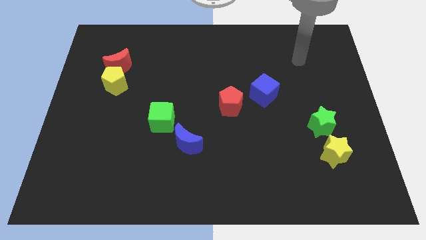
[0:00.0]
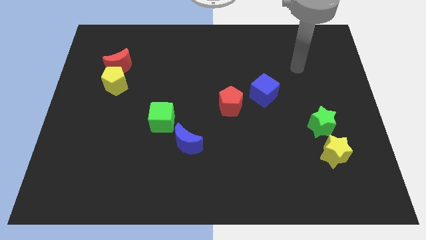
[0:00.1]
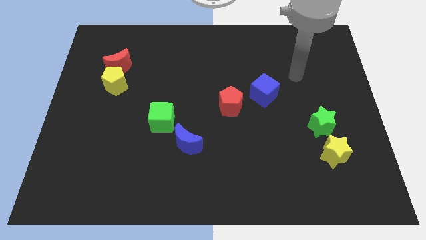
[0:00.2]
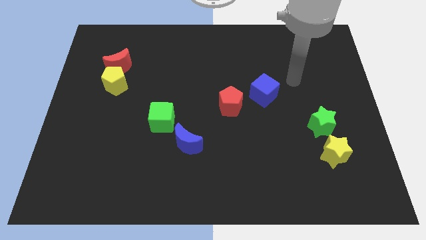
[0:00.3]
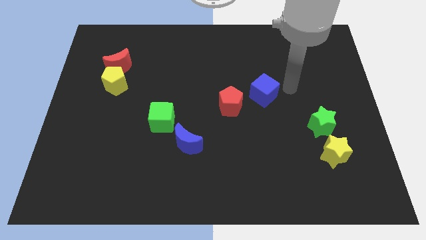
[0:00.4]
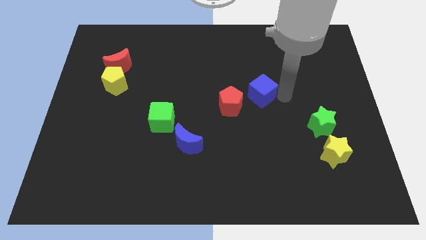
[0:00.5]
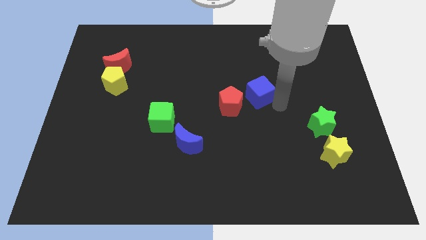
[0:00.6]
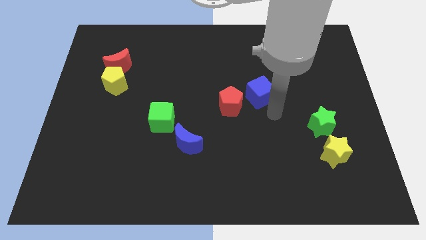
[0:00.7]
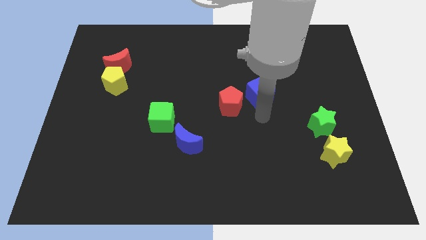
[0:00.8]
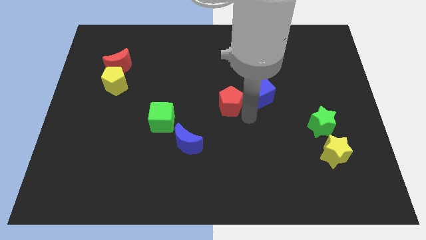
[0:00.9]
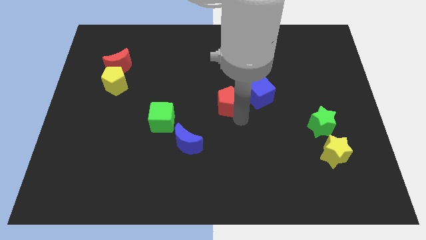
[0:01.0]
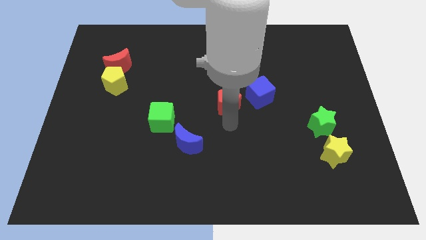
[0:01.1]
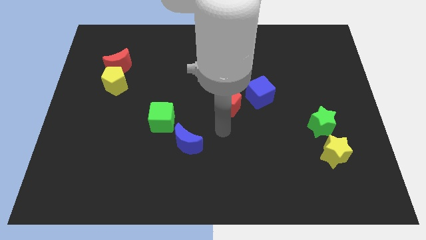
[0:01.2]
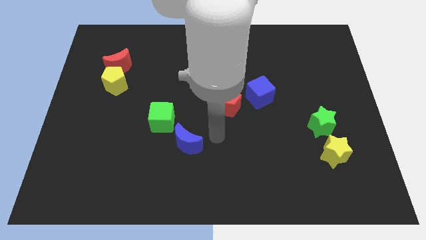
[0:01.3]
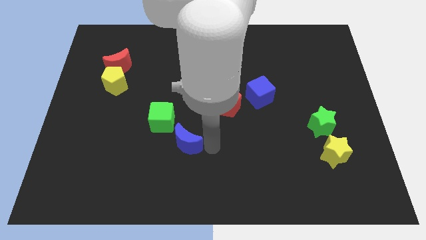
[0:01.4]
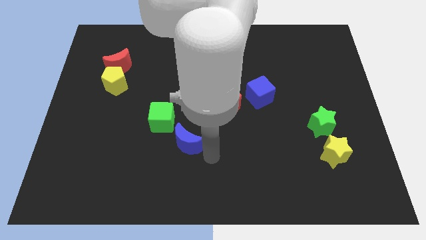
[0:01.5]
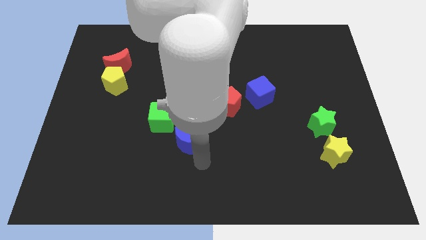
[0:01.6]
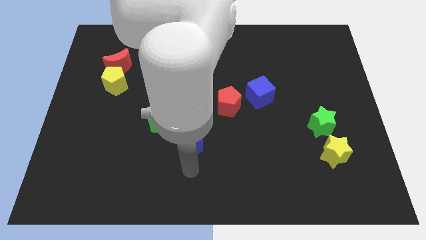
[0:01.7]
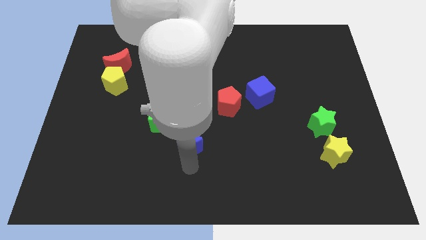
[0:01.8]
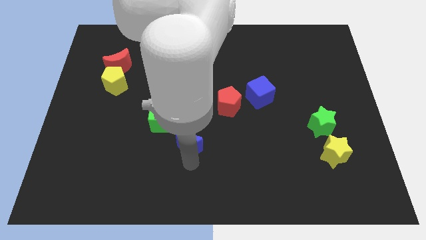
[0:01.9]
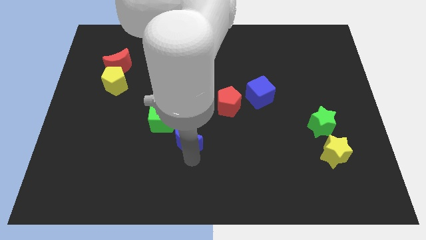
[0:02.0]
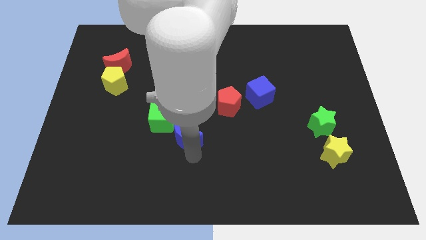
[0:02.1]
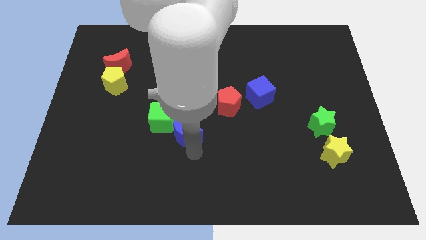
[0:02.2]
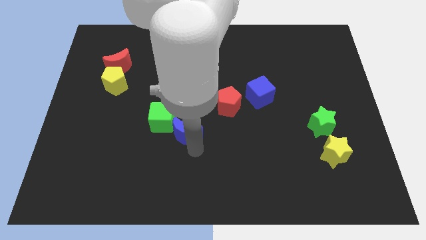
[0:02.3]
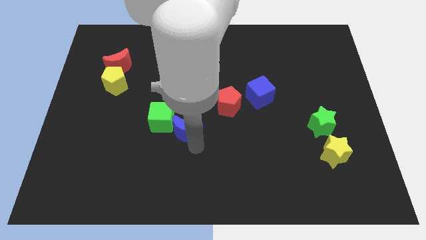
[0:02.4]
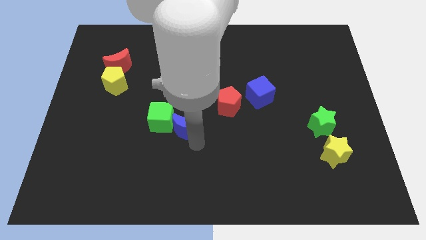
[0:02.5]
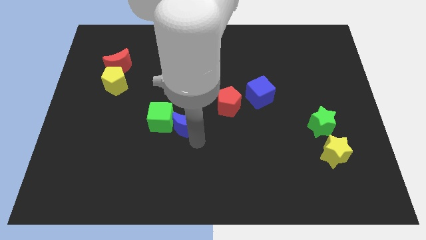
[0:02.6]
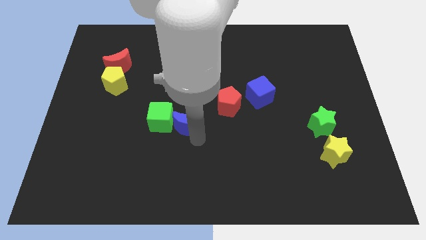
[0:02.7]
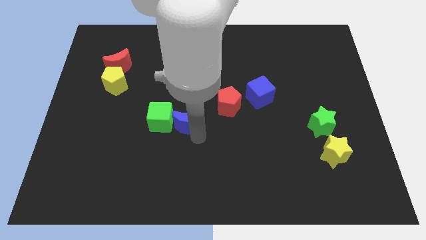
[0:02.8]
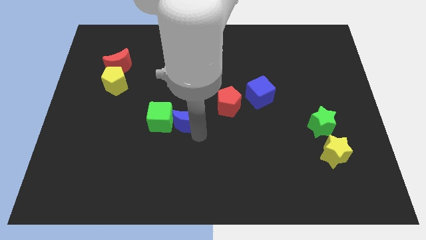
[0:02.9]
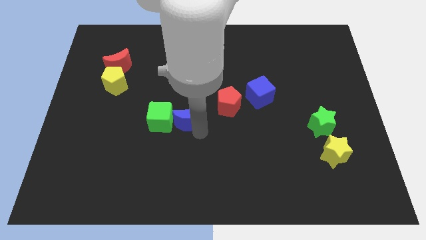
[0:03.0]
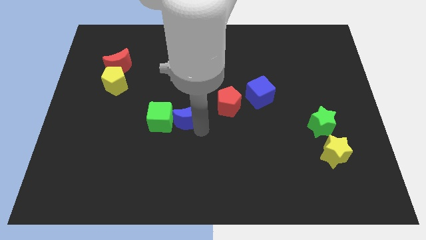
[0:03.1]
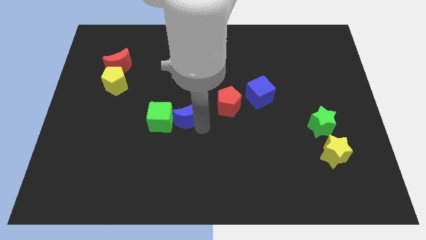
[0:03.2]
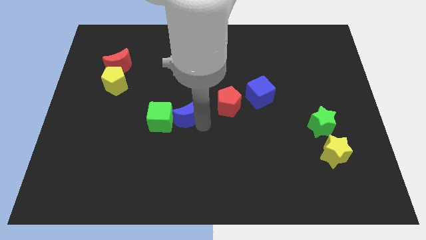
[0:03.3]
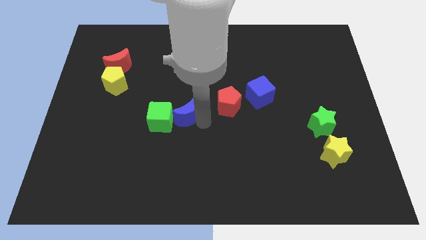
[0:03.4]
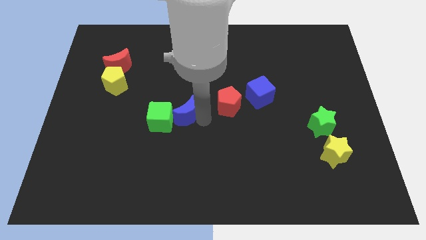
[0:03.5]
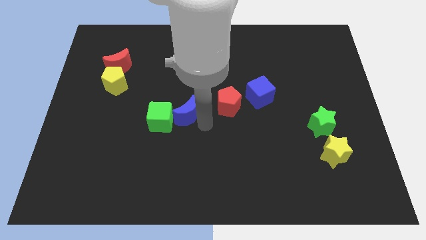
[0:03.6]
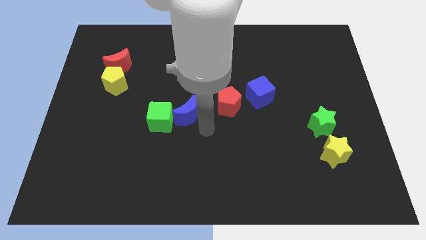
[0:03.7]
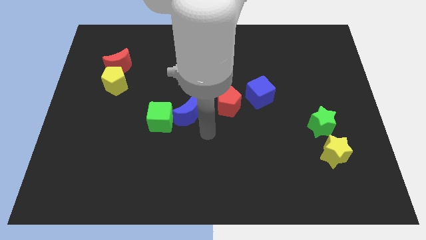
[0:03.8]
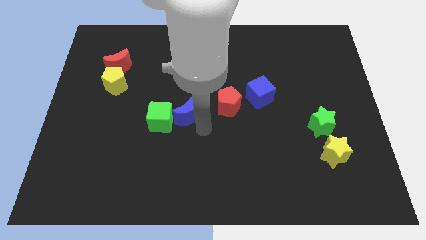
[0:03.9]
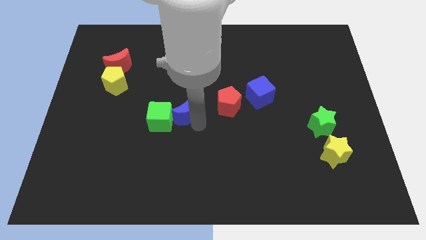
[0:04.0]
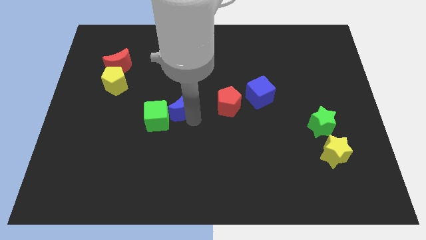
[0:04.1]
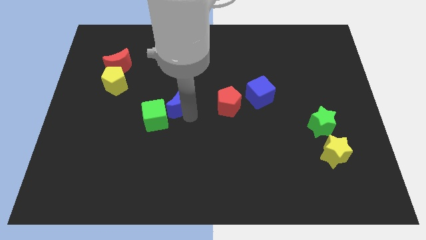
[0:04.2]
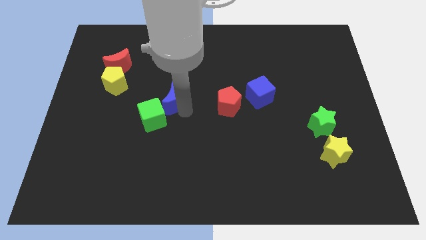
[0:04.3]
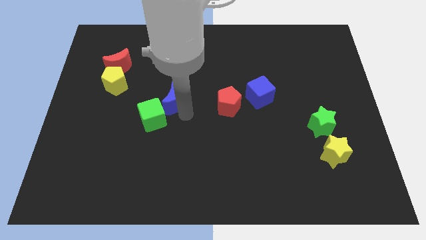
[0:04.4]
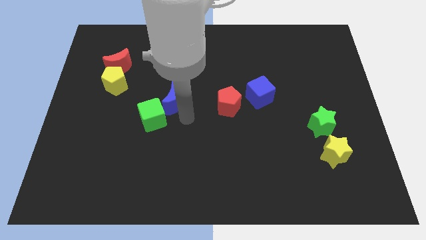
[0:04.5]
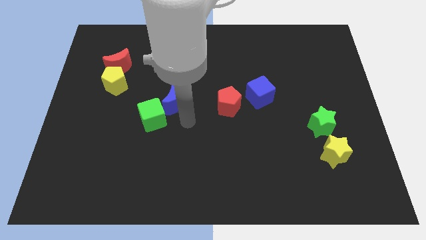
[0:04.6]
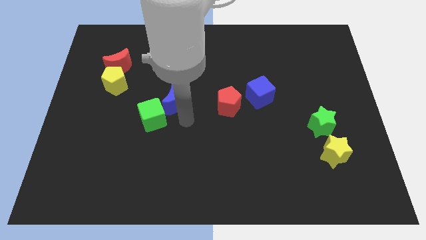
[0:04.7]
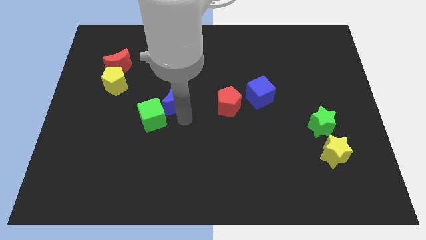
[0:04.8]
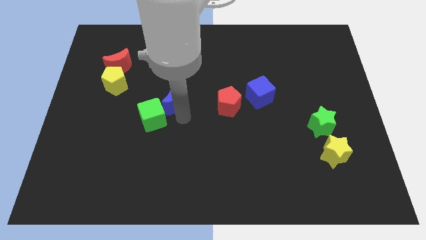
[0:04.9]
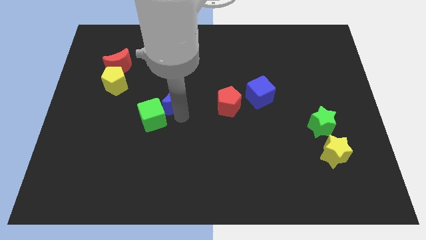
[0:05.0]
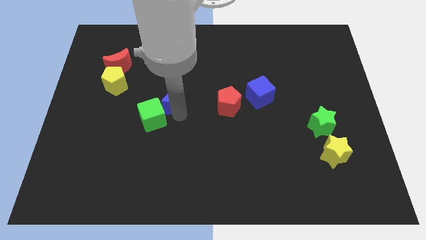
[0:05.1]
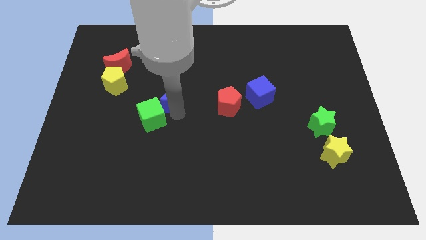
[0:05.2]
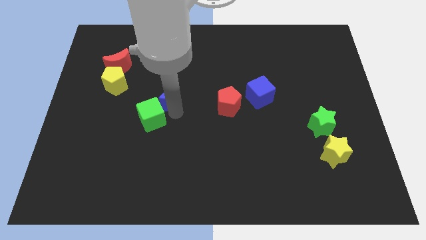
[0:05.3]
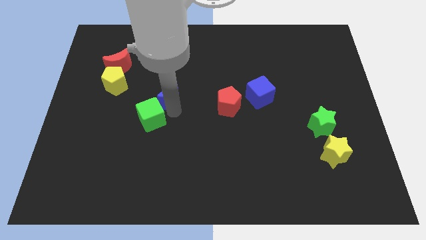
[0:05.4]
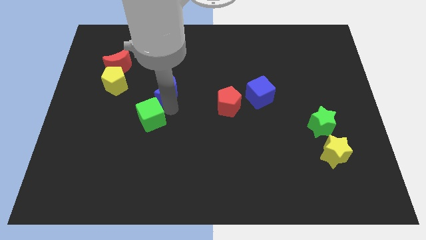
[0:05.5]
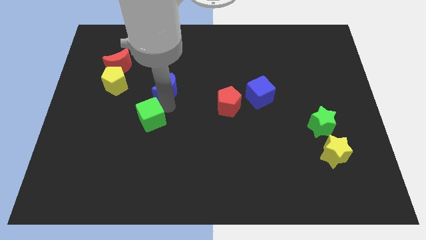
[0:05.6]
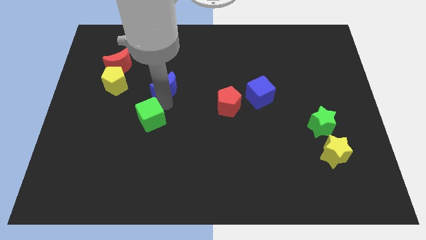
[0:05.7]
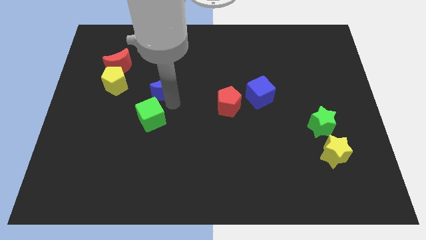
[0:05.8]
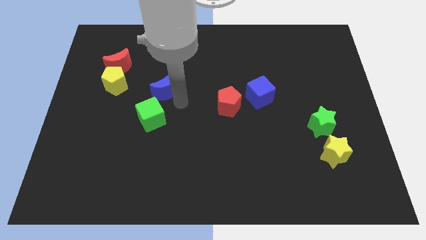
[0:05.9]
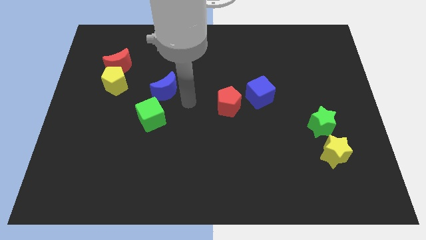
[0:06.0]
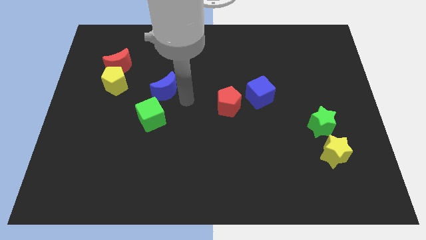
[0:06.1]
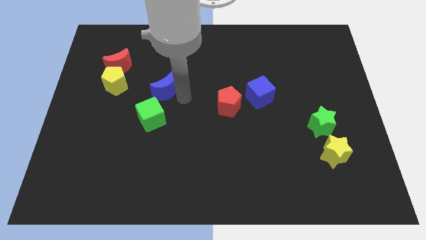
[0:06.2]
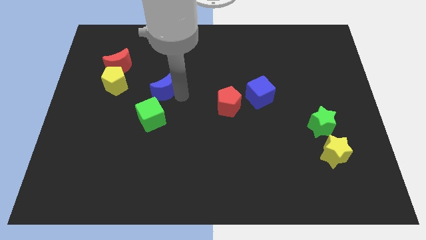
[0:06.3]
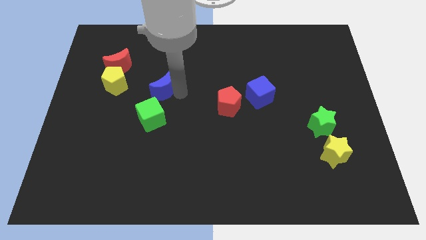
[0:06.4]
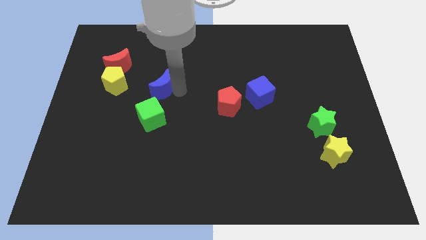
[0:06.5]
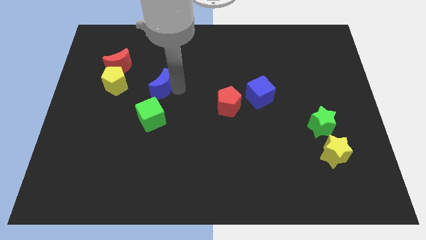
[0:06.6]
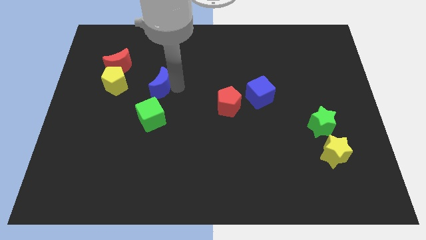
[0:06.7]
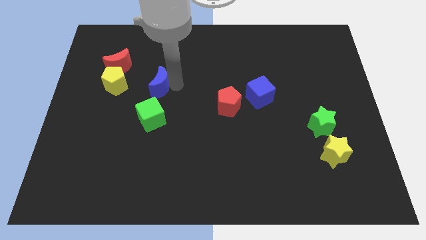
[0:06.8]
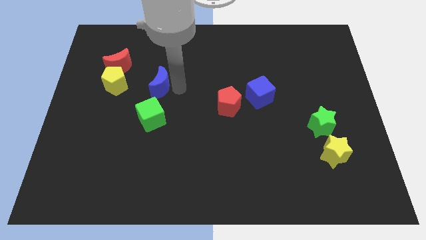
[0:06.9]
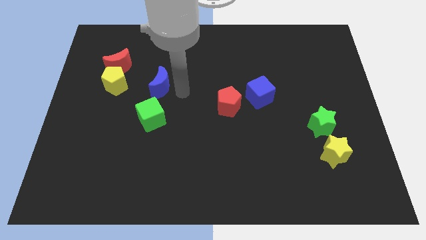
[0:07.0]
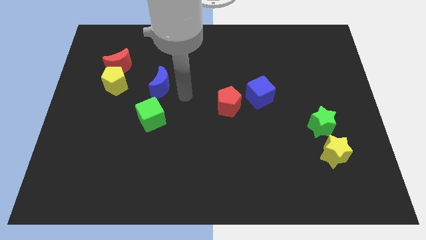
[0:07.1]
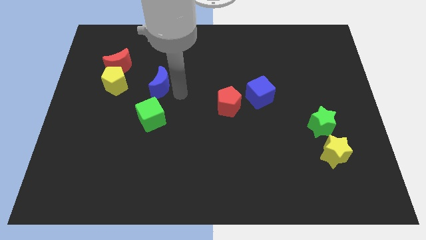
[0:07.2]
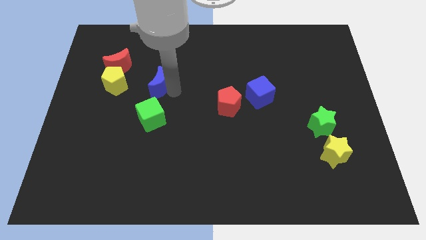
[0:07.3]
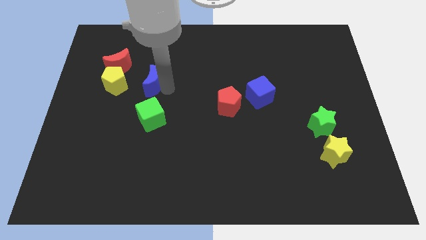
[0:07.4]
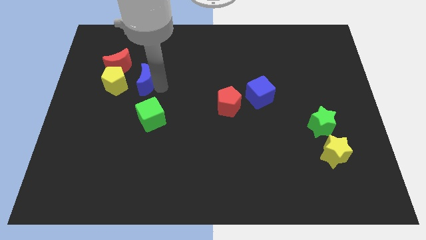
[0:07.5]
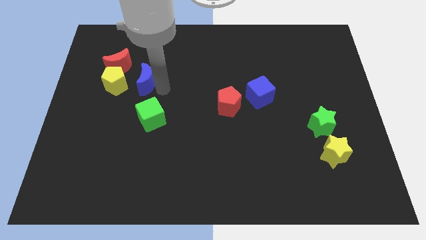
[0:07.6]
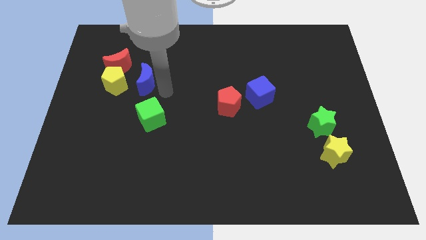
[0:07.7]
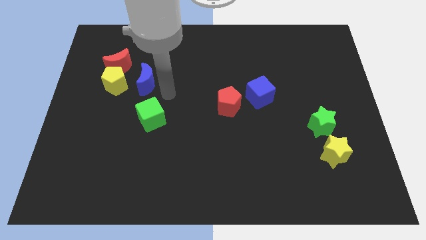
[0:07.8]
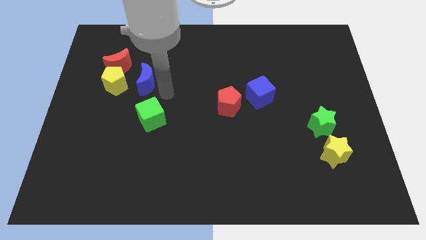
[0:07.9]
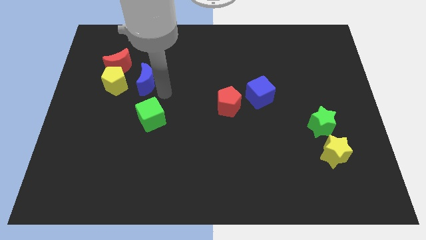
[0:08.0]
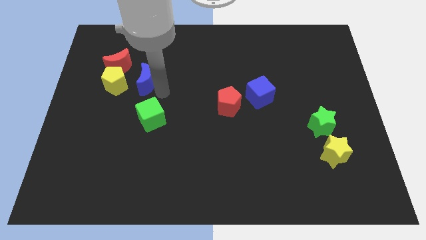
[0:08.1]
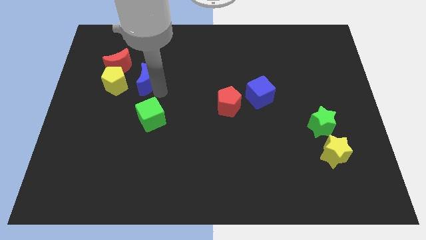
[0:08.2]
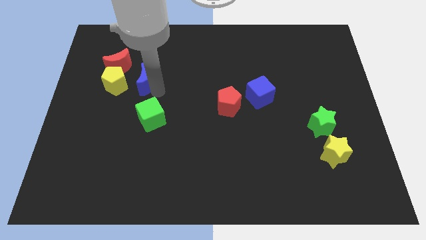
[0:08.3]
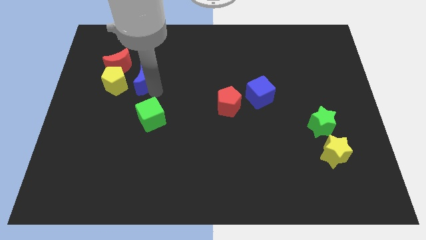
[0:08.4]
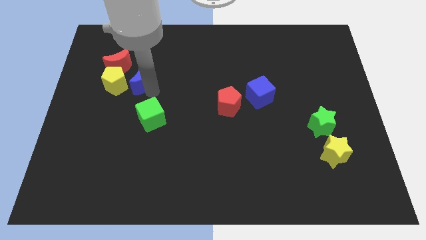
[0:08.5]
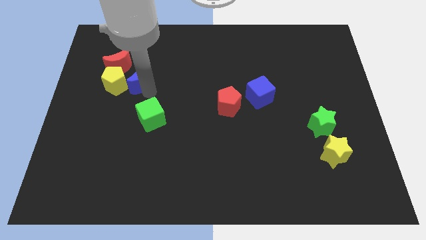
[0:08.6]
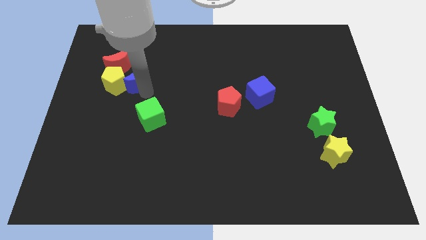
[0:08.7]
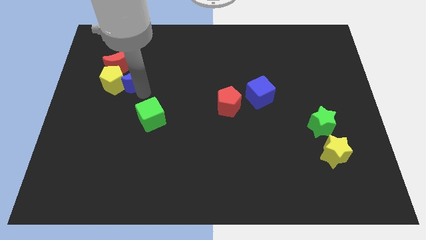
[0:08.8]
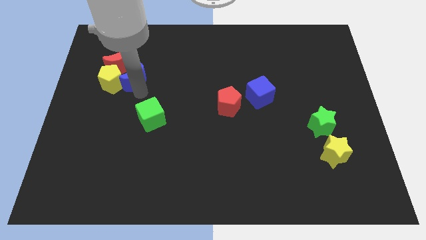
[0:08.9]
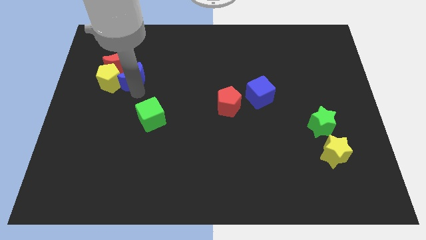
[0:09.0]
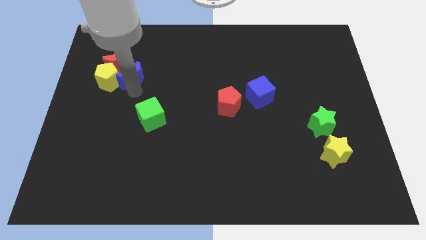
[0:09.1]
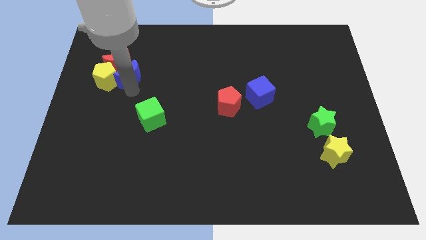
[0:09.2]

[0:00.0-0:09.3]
put the blue moon next to the red moon
